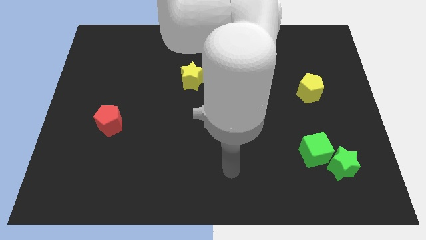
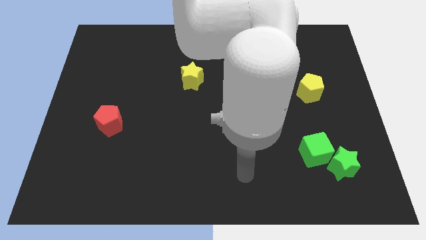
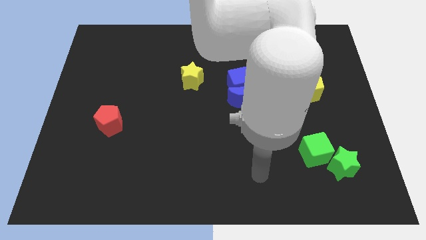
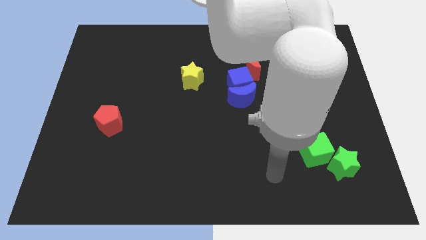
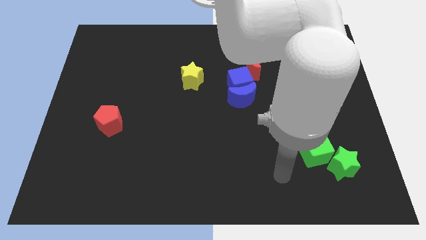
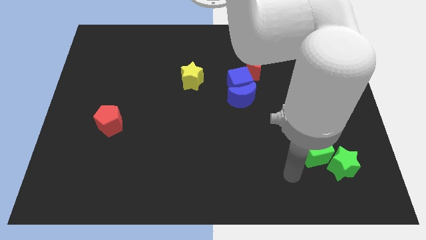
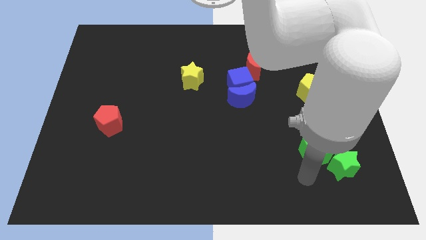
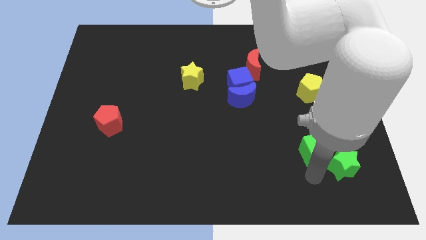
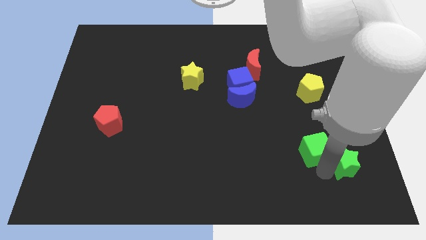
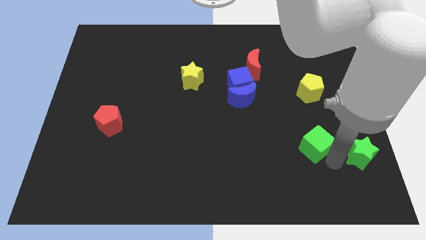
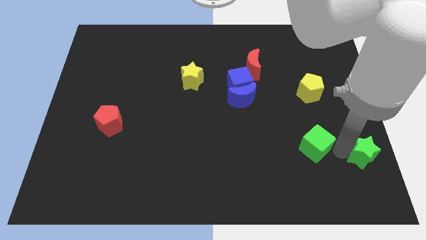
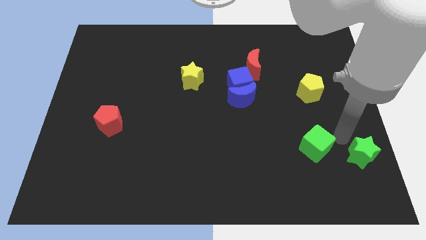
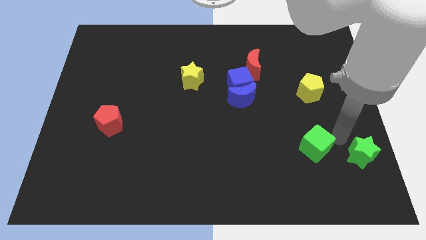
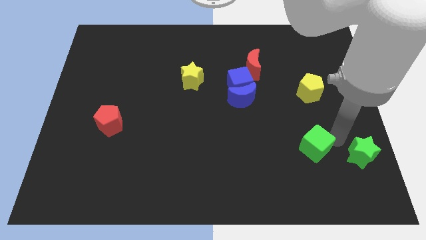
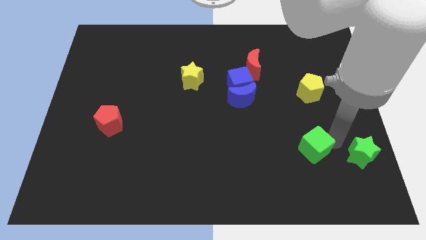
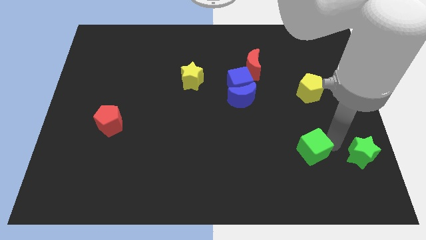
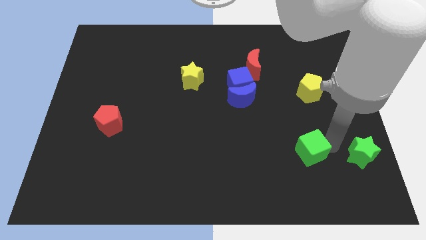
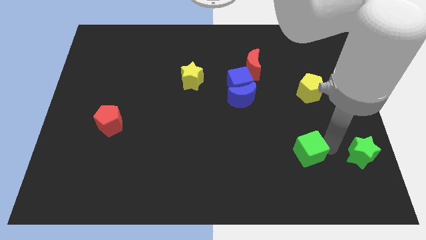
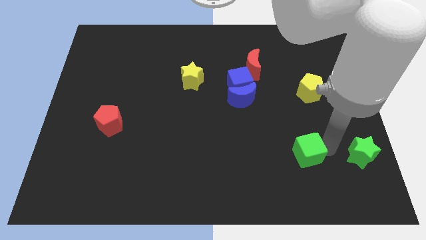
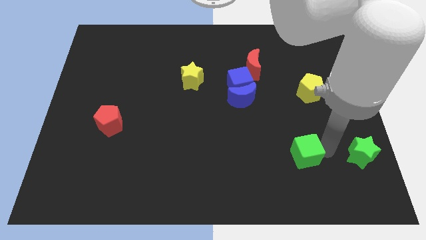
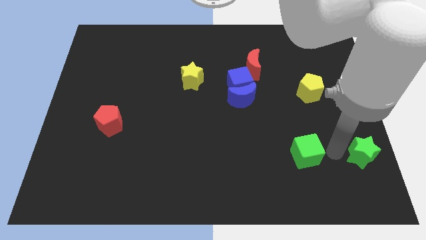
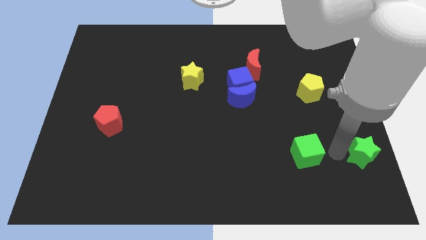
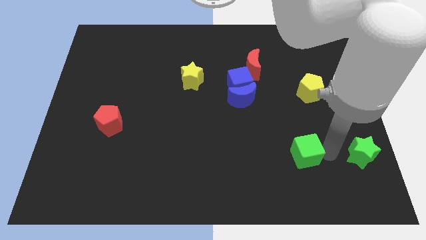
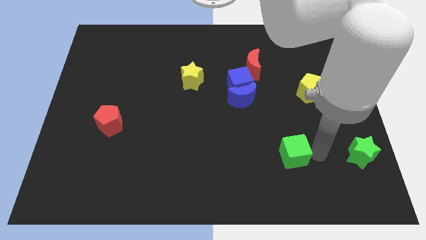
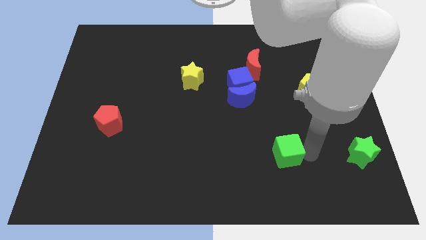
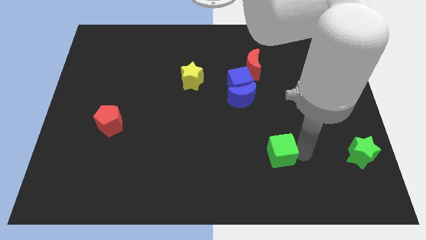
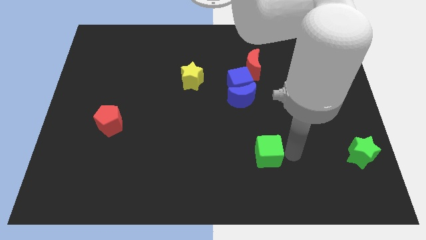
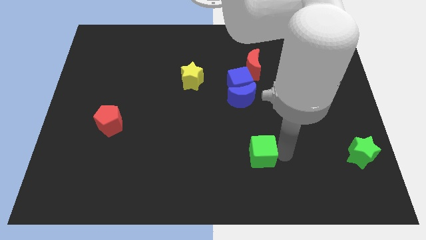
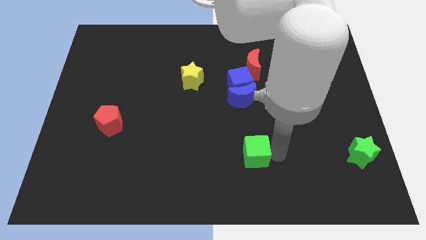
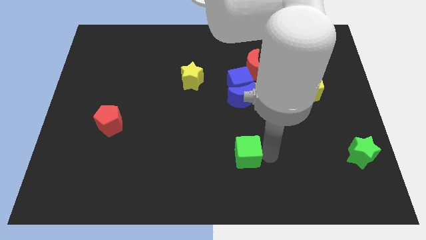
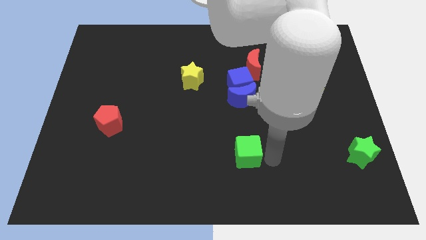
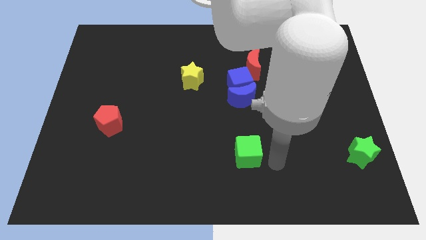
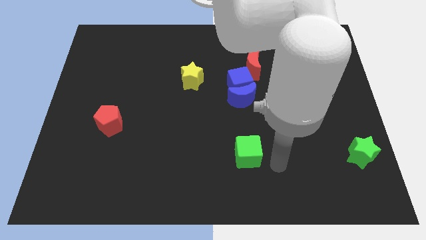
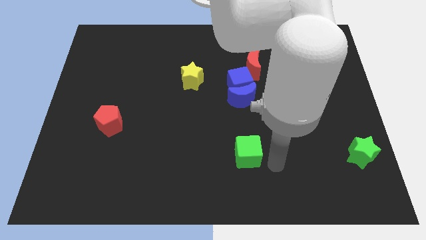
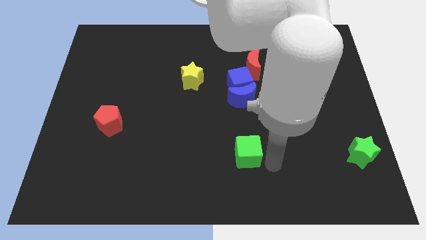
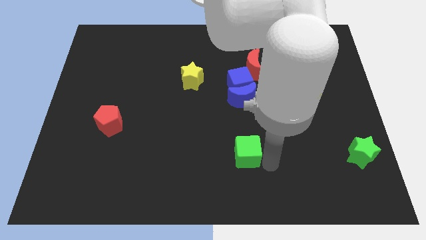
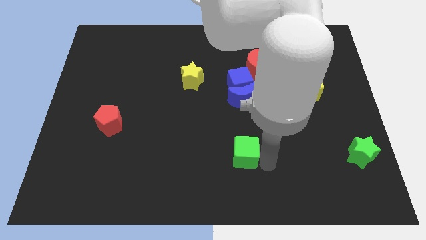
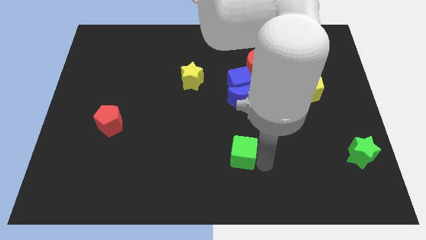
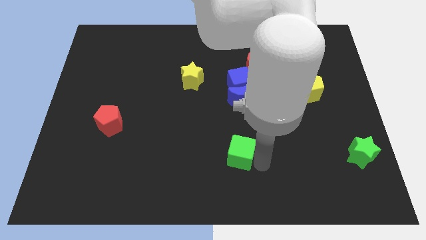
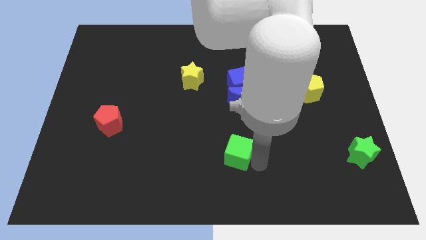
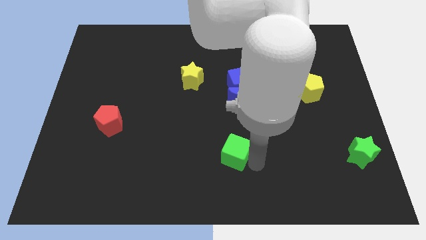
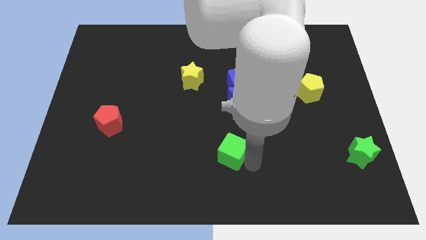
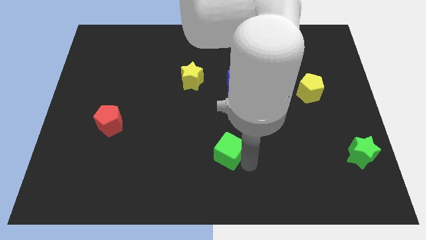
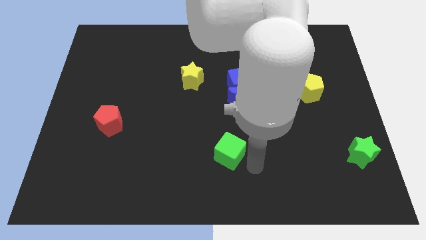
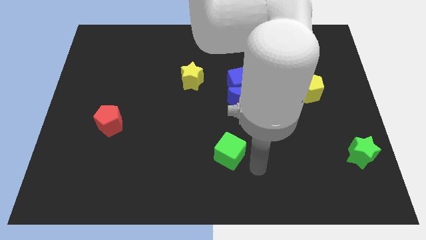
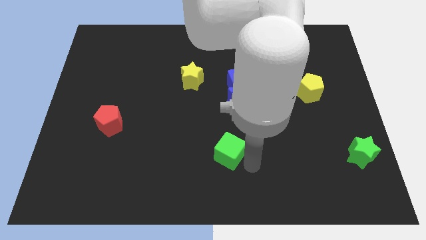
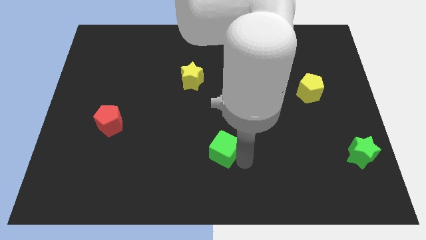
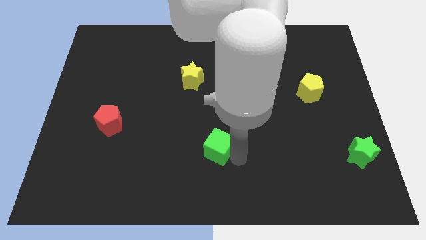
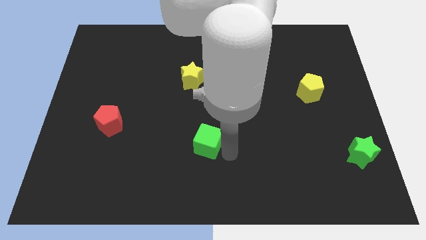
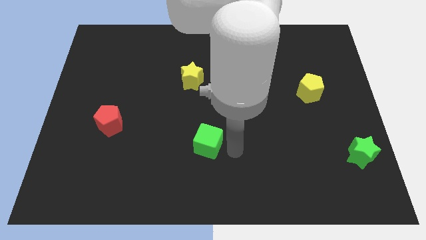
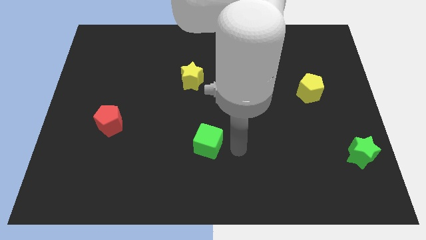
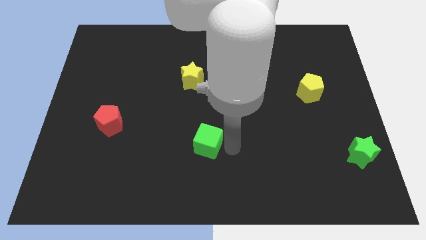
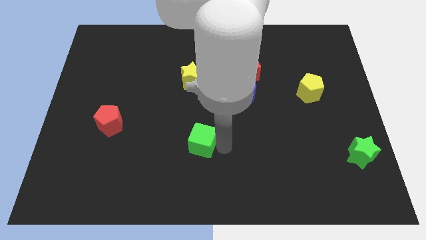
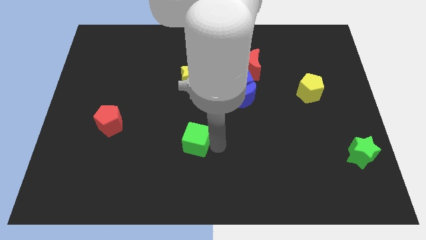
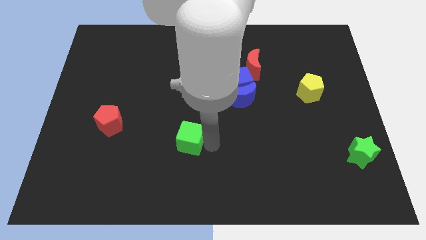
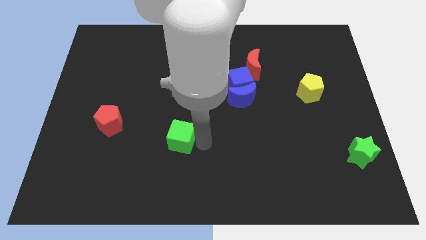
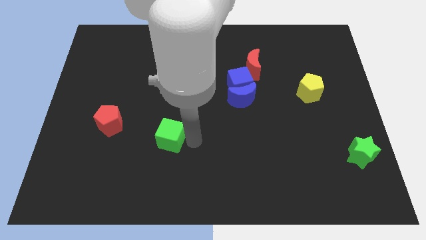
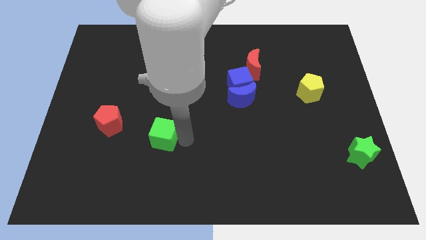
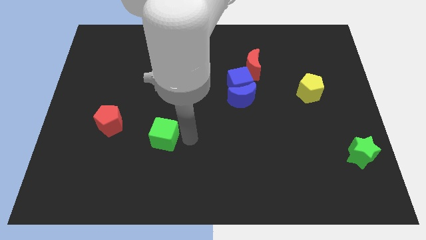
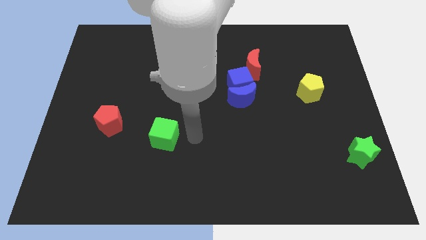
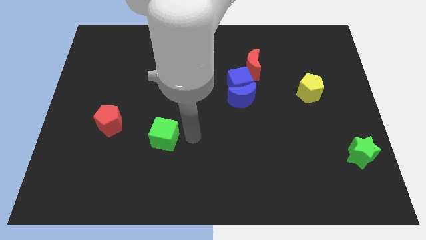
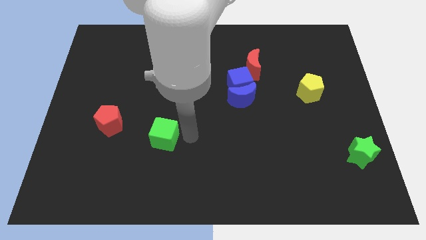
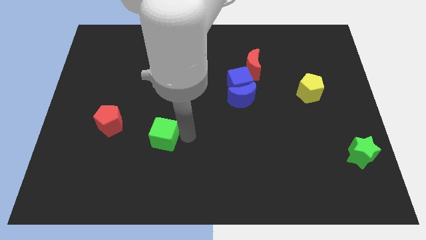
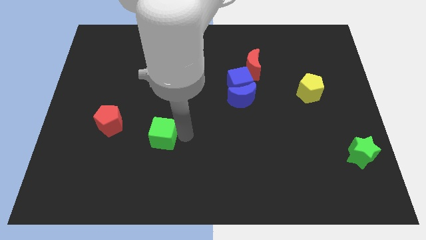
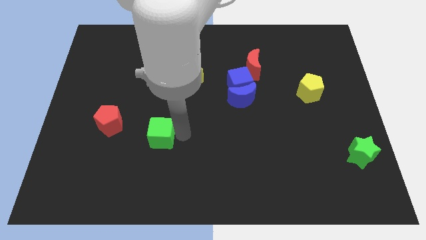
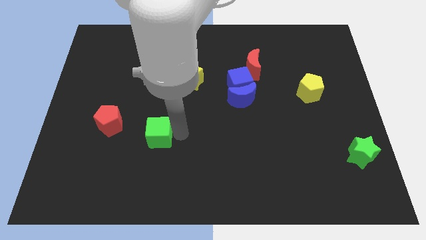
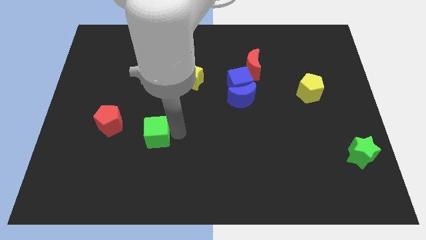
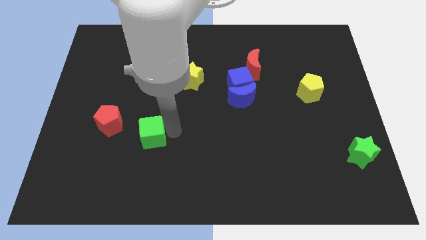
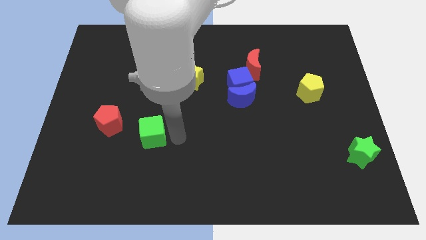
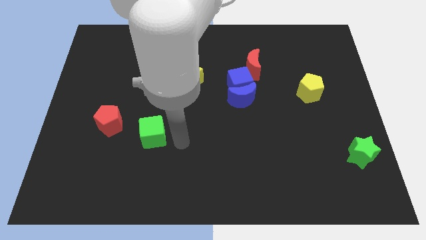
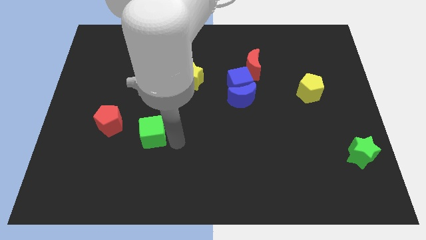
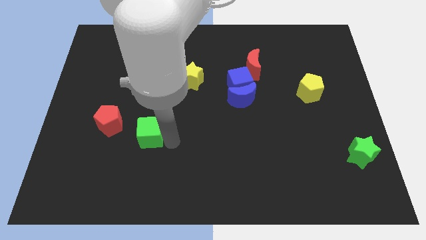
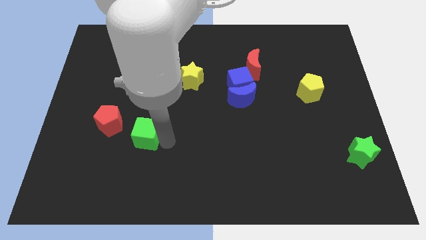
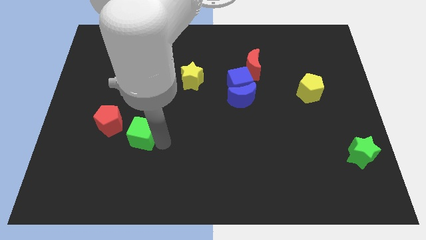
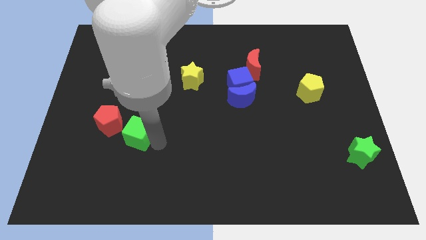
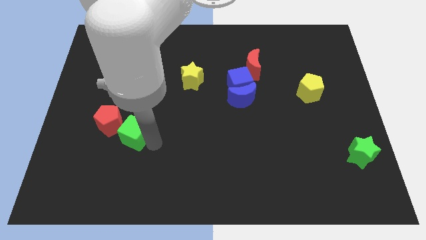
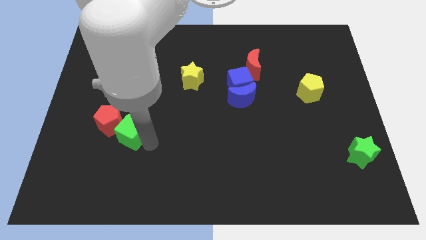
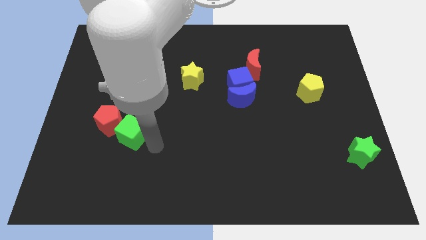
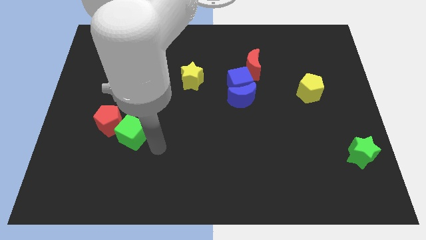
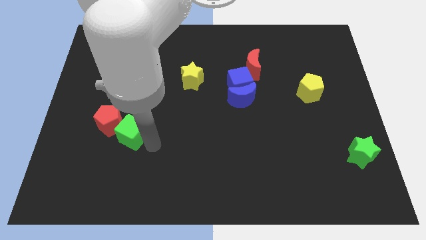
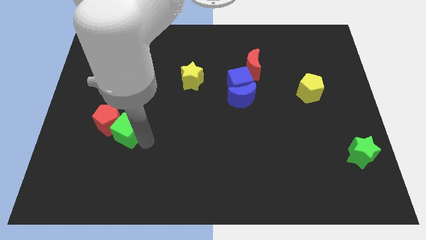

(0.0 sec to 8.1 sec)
slide the green cube to the red pentagon
